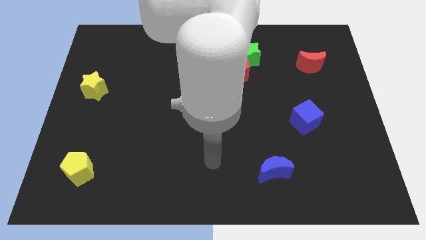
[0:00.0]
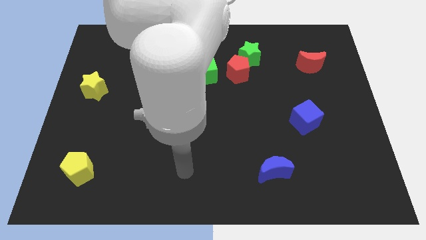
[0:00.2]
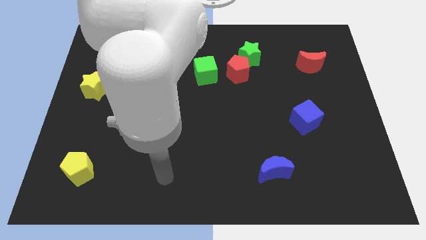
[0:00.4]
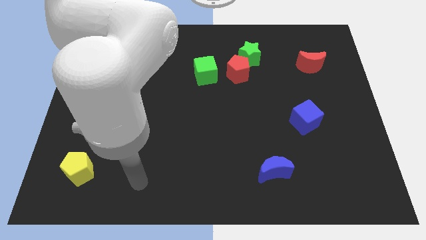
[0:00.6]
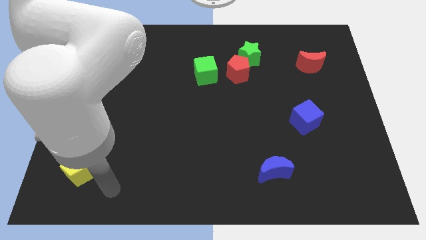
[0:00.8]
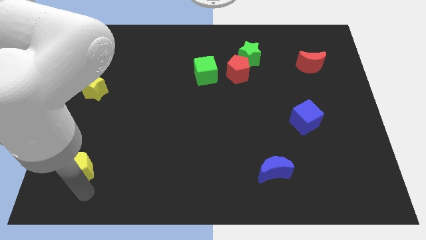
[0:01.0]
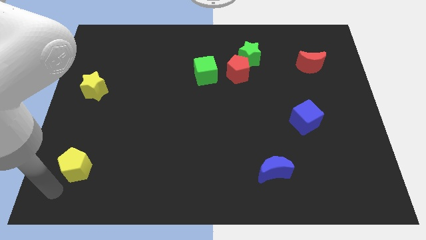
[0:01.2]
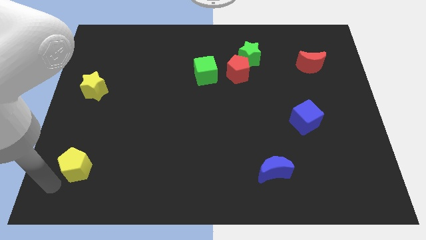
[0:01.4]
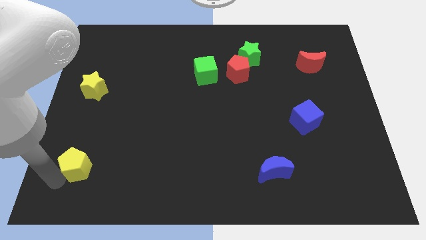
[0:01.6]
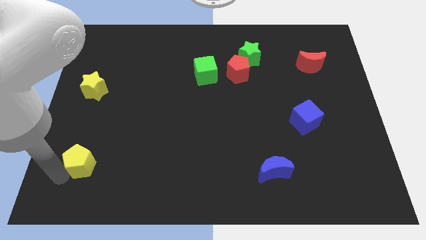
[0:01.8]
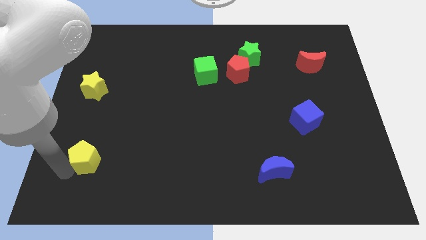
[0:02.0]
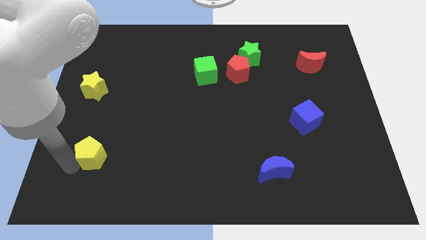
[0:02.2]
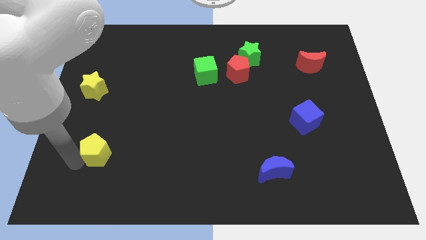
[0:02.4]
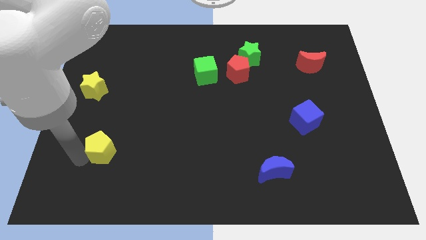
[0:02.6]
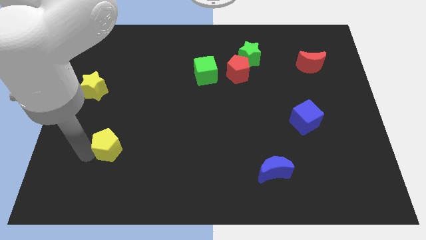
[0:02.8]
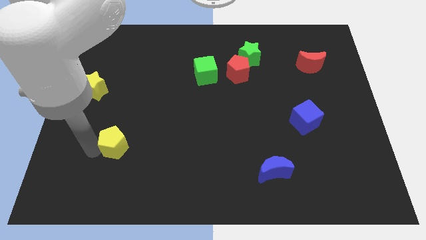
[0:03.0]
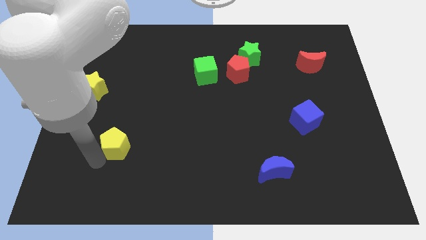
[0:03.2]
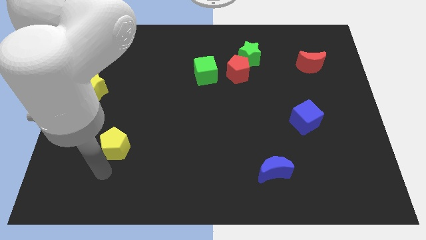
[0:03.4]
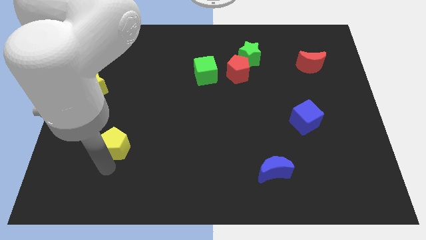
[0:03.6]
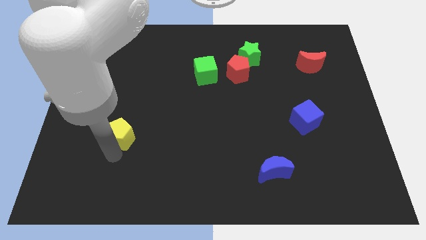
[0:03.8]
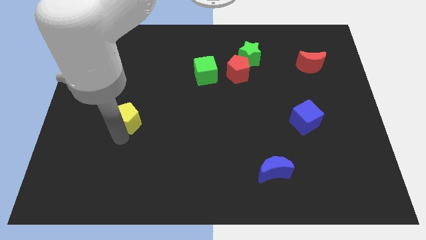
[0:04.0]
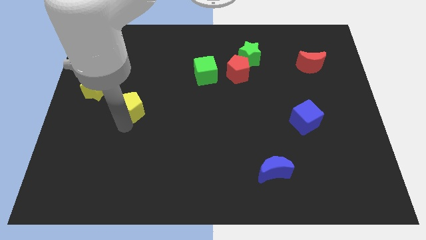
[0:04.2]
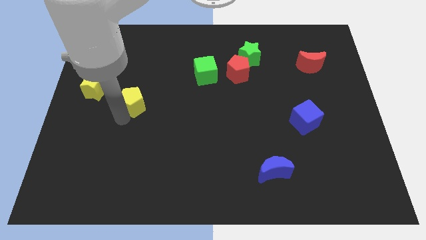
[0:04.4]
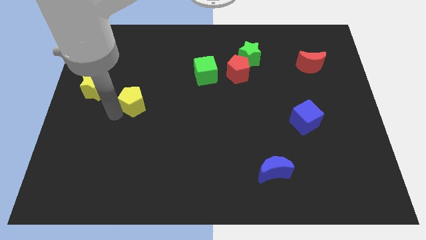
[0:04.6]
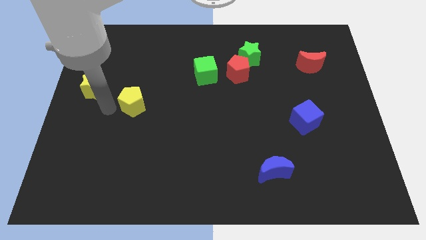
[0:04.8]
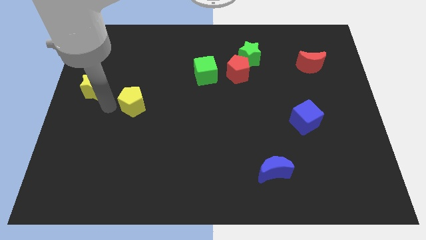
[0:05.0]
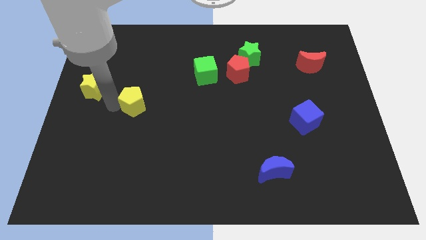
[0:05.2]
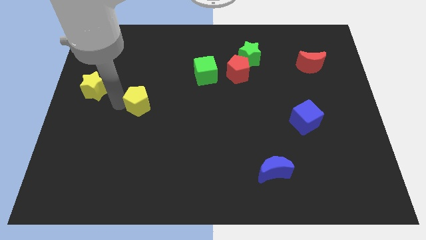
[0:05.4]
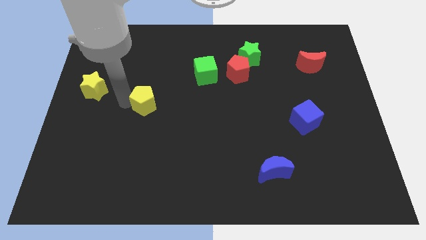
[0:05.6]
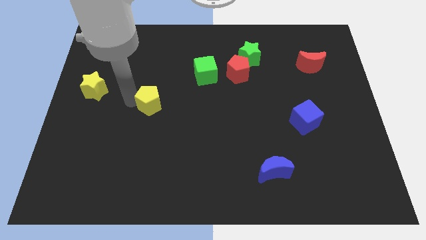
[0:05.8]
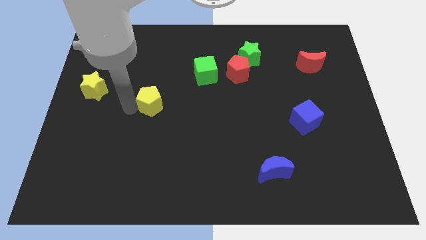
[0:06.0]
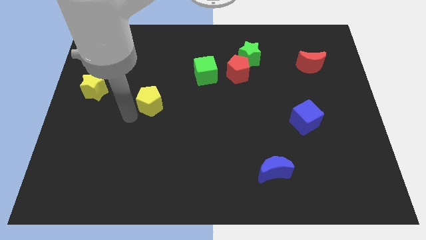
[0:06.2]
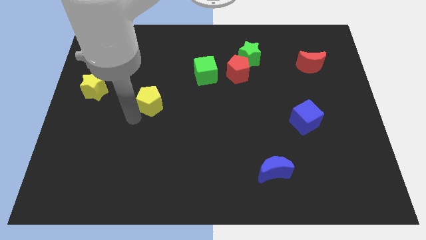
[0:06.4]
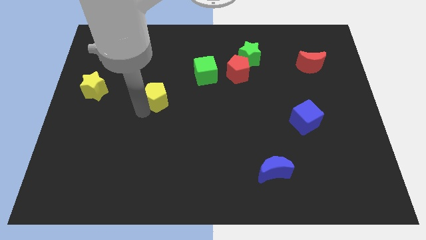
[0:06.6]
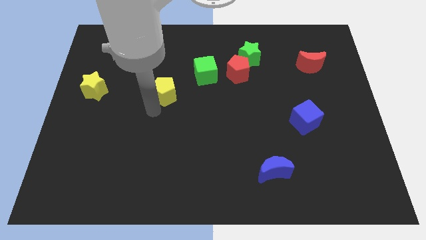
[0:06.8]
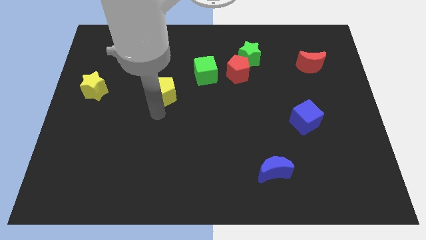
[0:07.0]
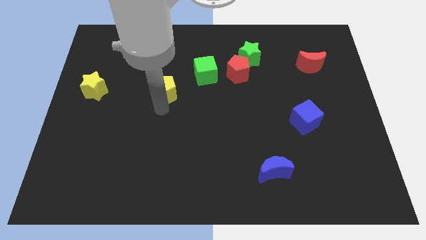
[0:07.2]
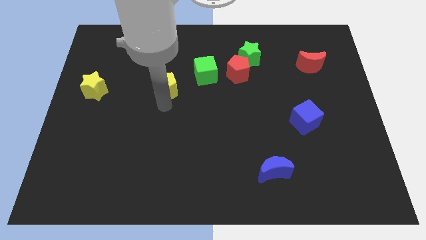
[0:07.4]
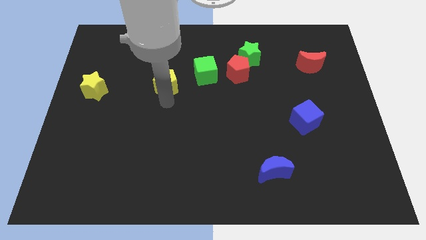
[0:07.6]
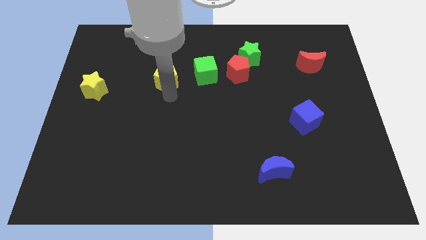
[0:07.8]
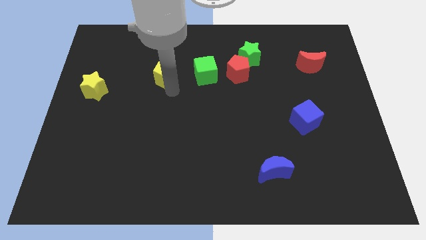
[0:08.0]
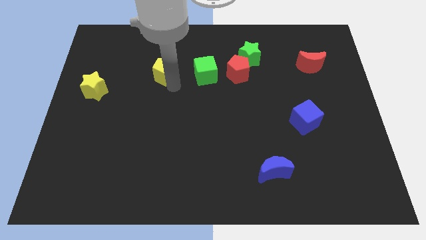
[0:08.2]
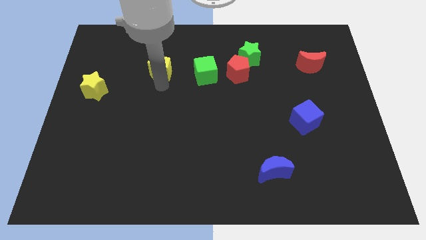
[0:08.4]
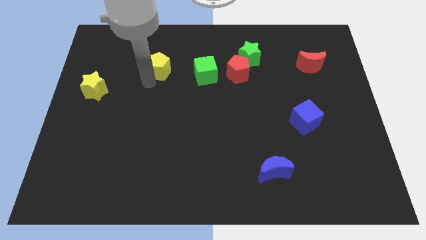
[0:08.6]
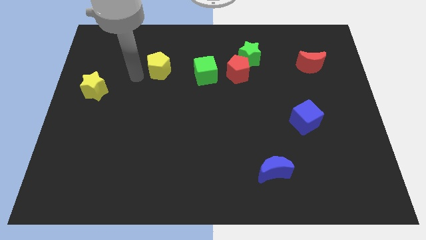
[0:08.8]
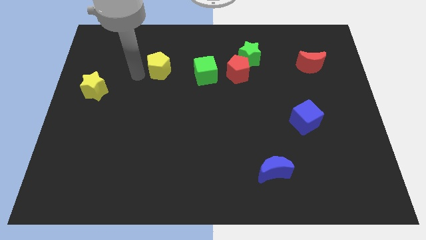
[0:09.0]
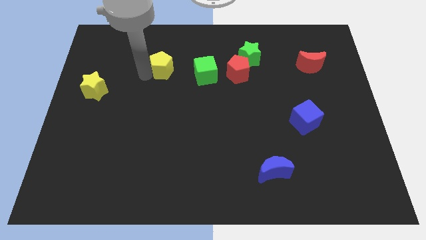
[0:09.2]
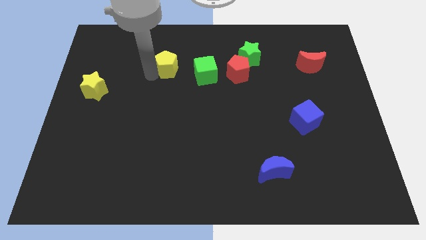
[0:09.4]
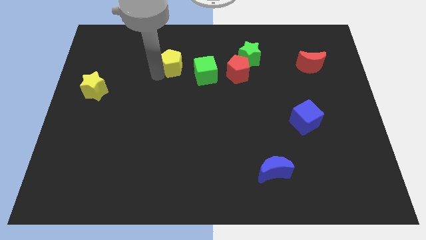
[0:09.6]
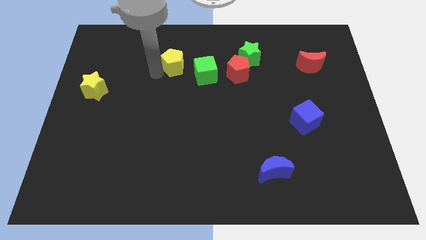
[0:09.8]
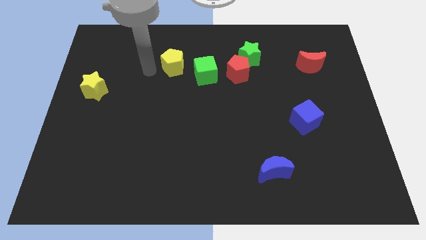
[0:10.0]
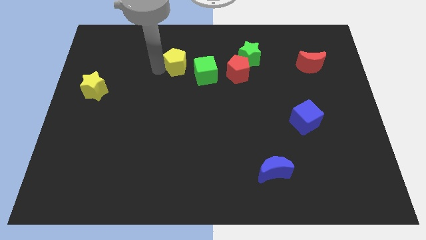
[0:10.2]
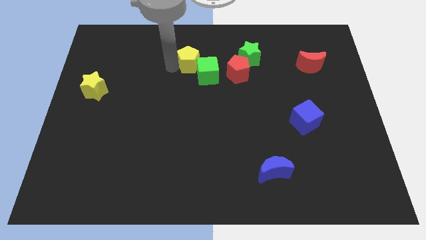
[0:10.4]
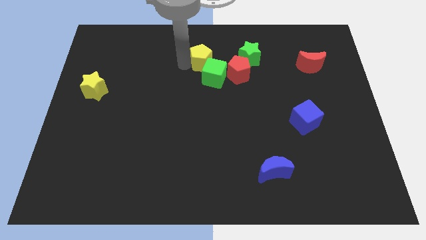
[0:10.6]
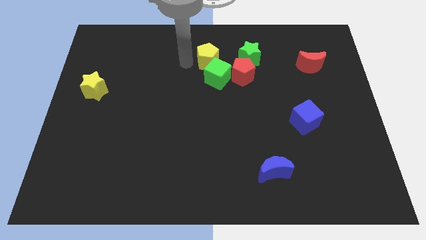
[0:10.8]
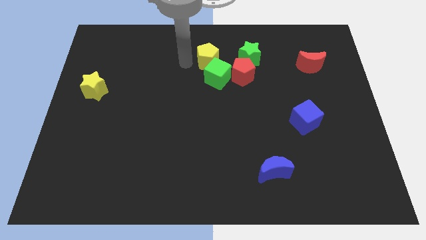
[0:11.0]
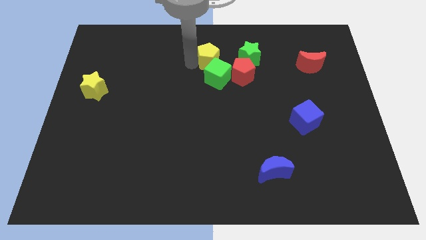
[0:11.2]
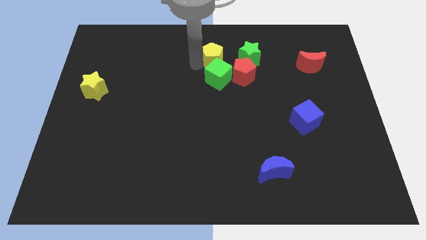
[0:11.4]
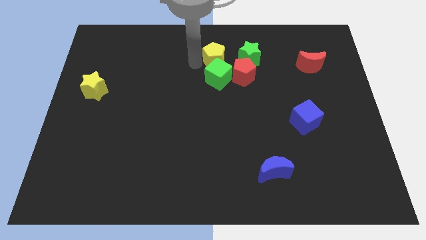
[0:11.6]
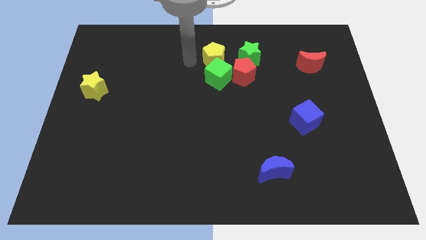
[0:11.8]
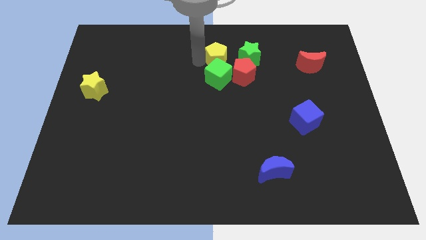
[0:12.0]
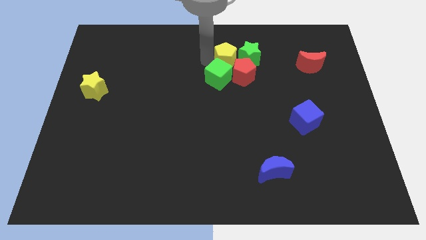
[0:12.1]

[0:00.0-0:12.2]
slide the yellow pentagon close to the green star

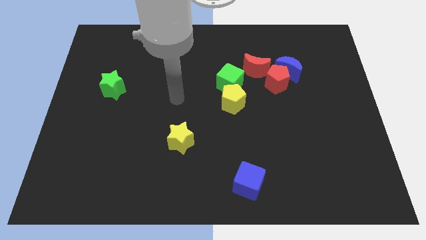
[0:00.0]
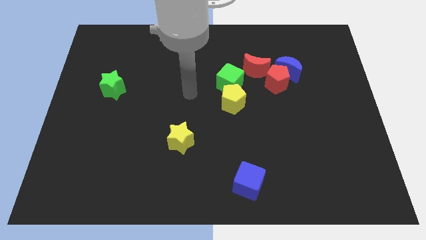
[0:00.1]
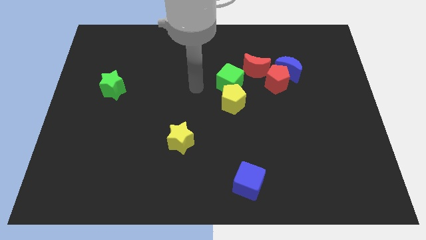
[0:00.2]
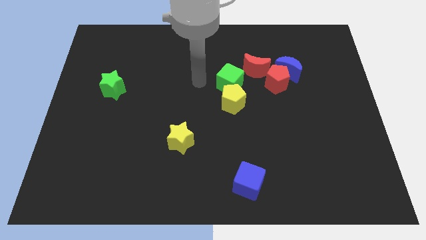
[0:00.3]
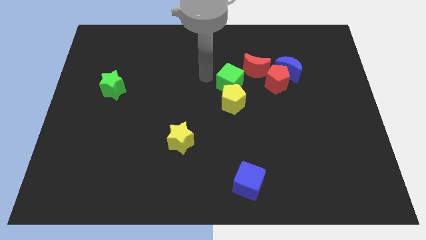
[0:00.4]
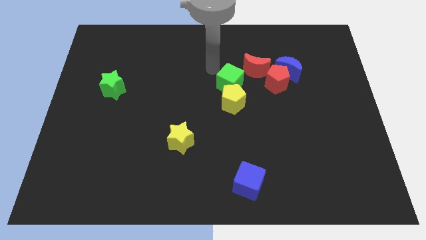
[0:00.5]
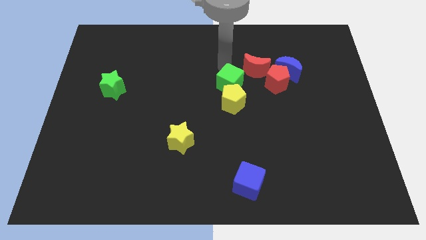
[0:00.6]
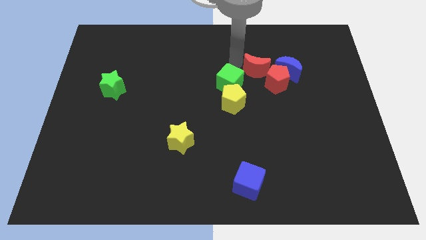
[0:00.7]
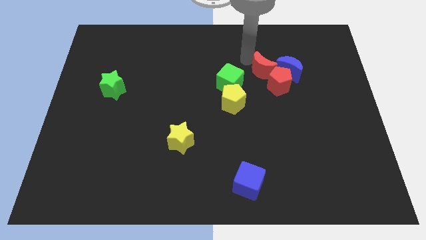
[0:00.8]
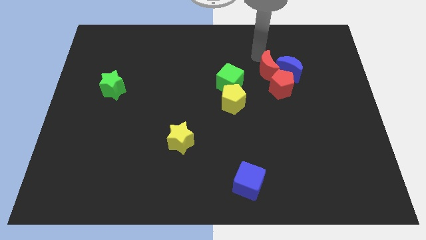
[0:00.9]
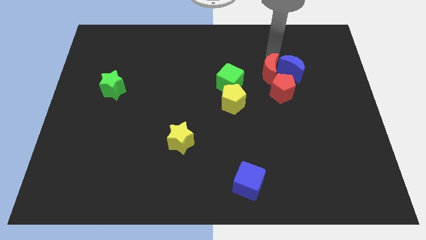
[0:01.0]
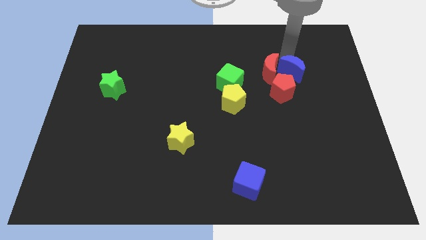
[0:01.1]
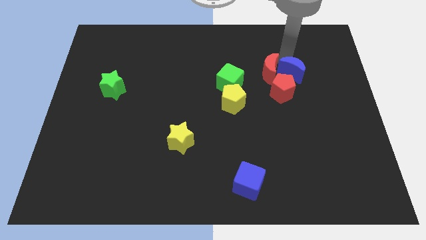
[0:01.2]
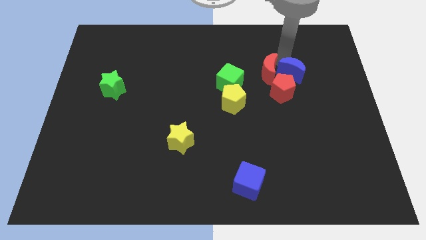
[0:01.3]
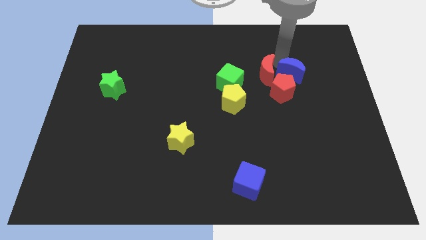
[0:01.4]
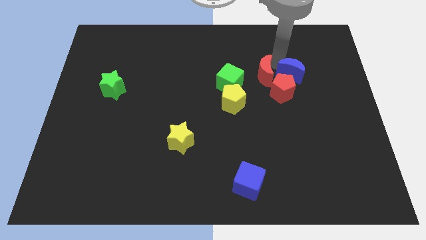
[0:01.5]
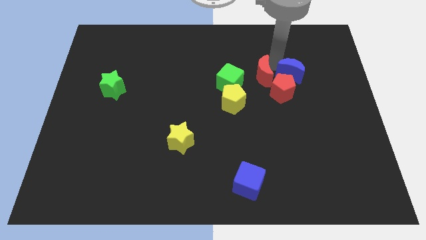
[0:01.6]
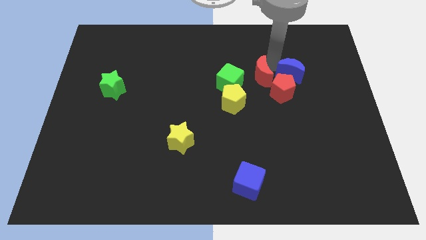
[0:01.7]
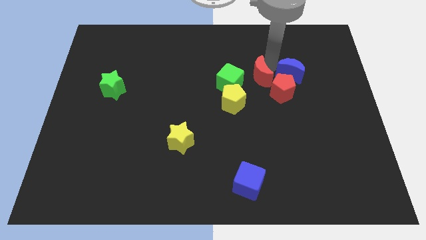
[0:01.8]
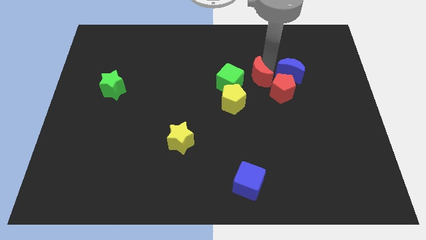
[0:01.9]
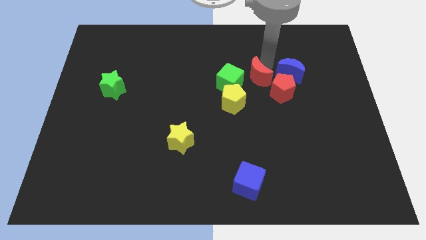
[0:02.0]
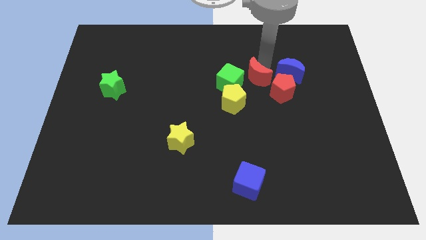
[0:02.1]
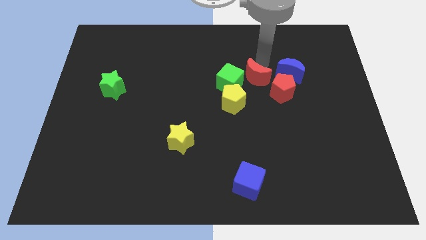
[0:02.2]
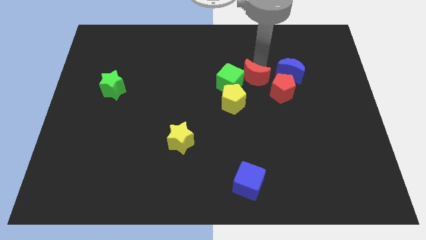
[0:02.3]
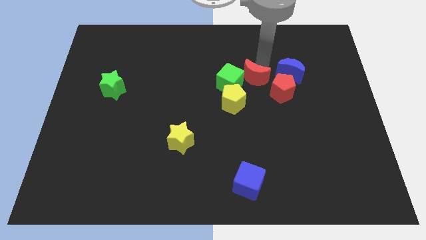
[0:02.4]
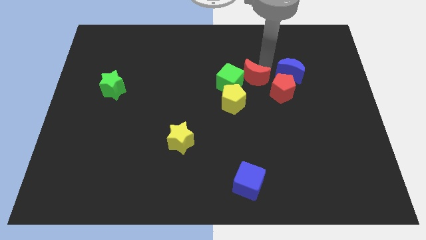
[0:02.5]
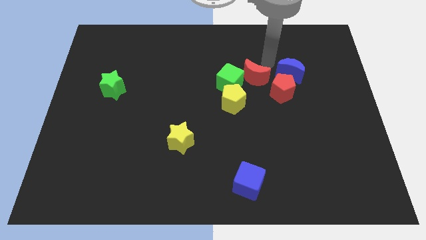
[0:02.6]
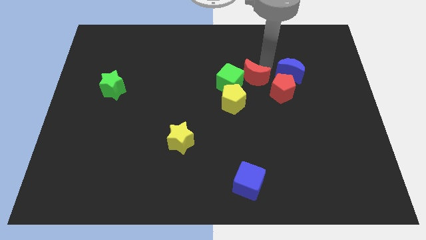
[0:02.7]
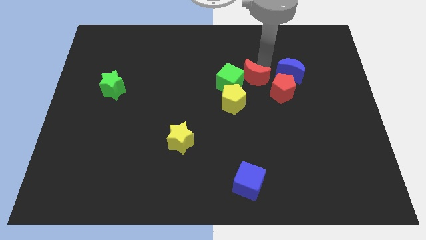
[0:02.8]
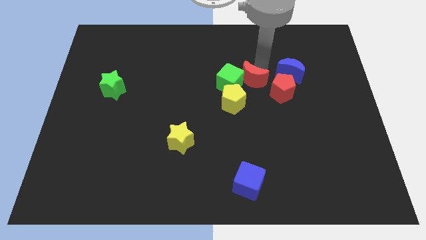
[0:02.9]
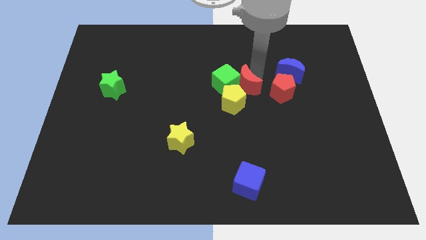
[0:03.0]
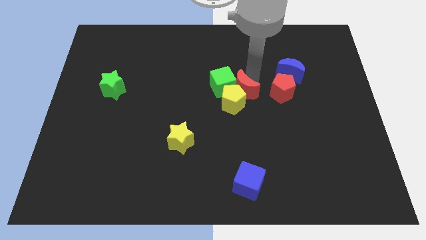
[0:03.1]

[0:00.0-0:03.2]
slide the red moon next to the yellow pentagon
